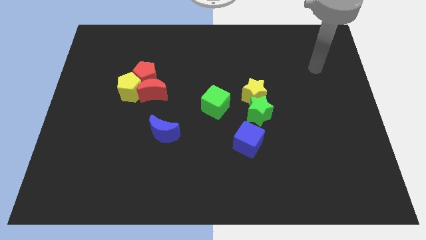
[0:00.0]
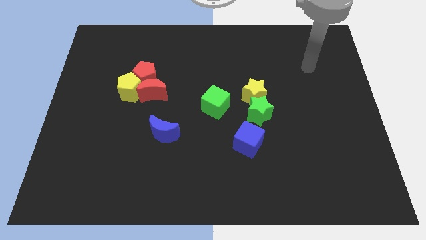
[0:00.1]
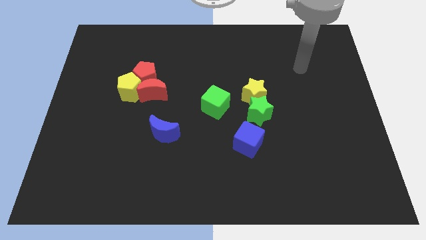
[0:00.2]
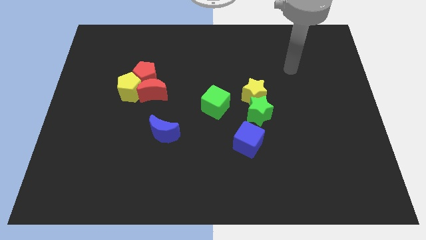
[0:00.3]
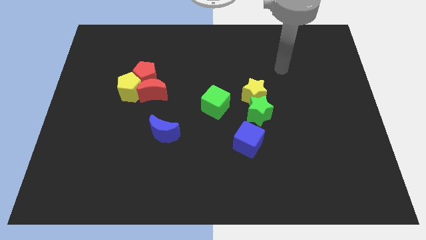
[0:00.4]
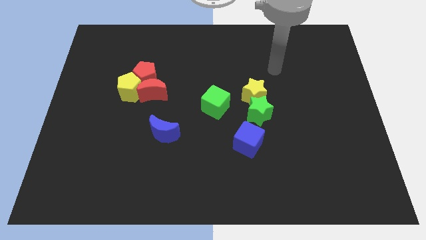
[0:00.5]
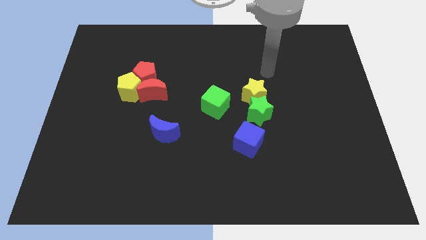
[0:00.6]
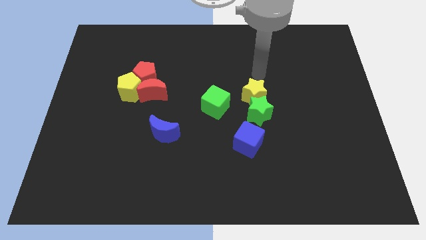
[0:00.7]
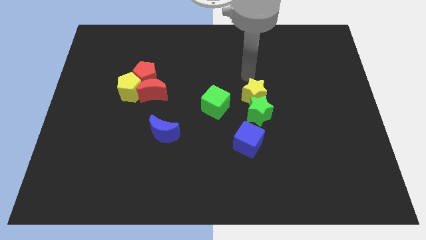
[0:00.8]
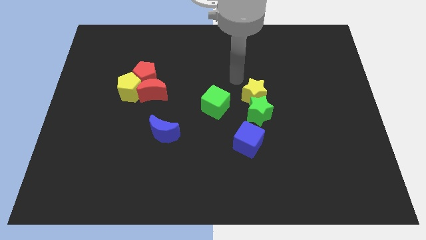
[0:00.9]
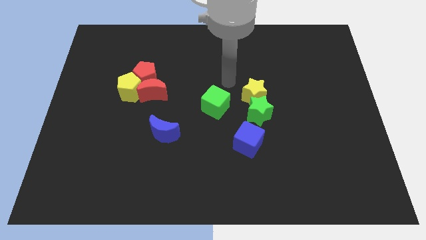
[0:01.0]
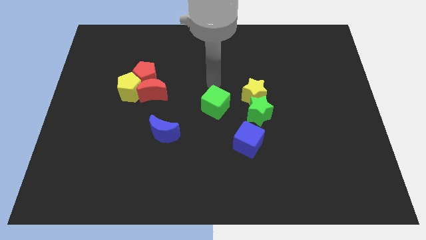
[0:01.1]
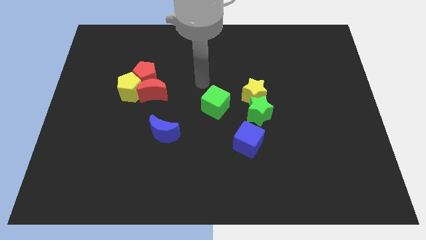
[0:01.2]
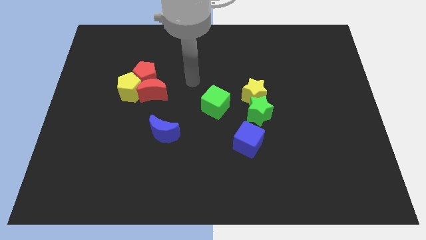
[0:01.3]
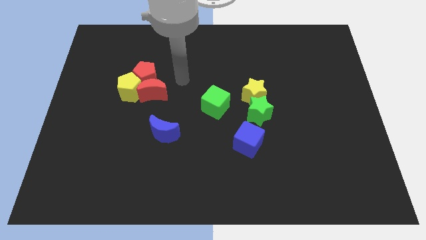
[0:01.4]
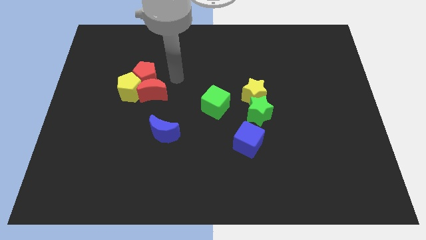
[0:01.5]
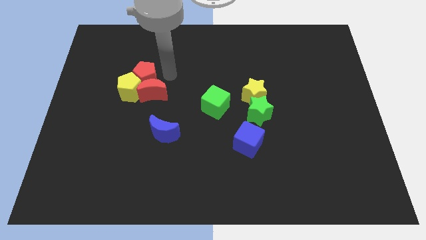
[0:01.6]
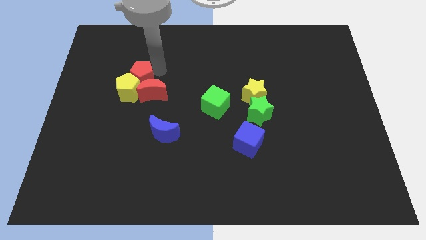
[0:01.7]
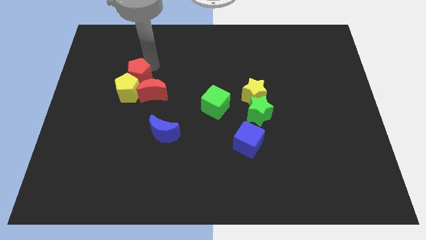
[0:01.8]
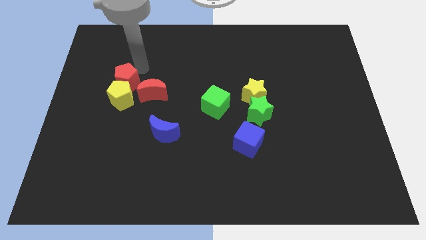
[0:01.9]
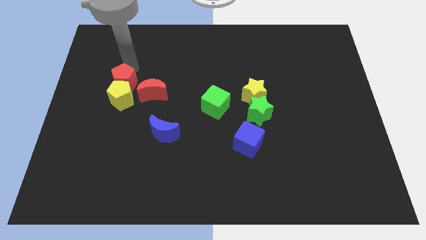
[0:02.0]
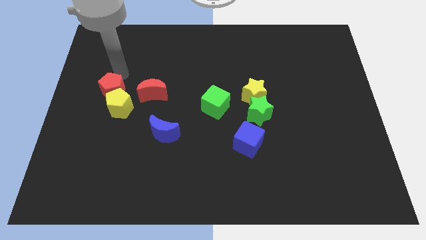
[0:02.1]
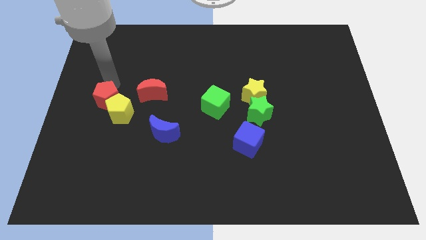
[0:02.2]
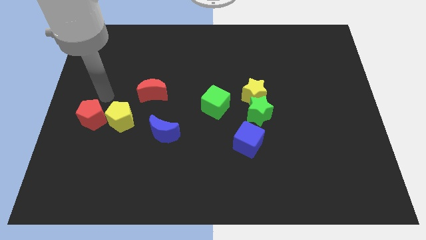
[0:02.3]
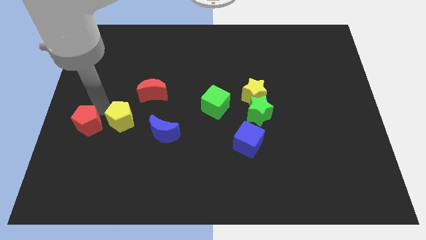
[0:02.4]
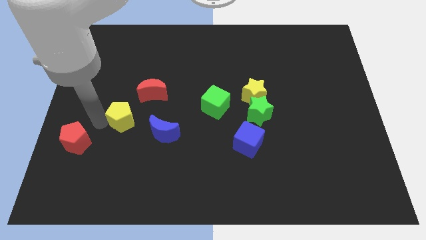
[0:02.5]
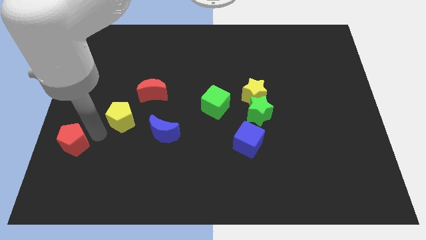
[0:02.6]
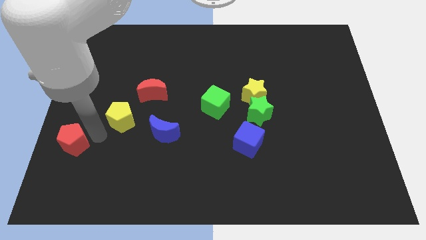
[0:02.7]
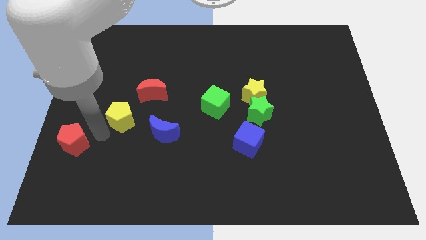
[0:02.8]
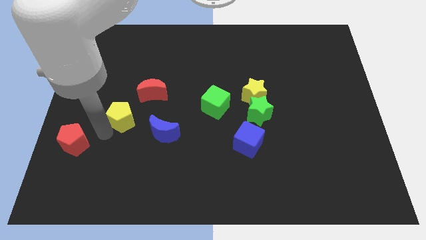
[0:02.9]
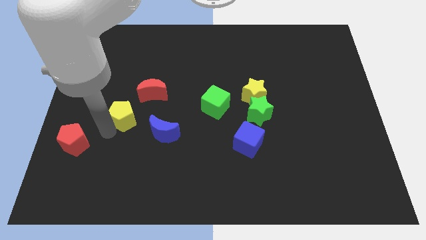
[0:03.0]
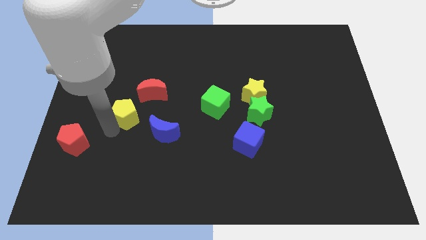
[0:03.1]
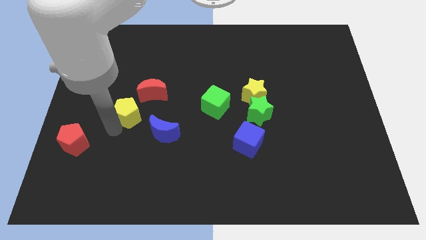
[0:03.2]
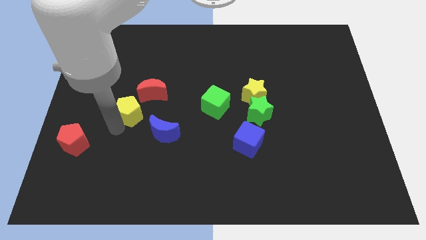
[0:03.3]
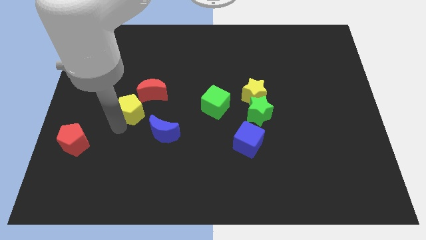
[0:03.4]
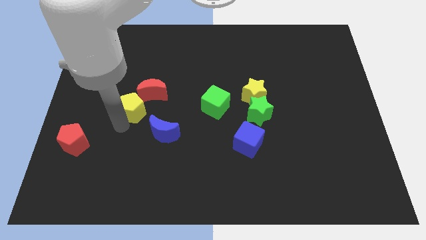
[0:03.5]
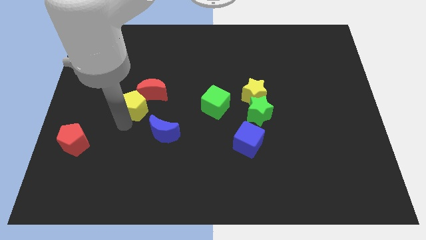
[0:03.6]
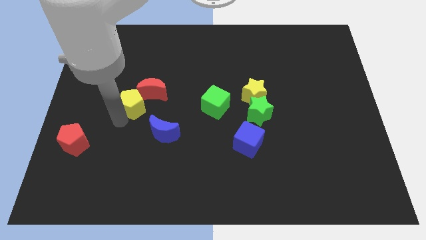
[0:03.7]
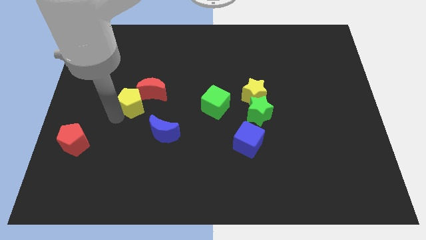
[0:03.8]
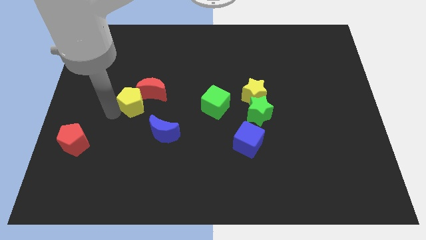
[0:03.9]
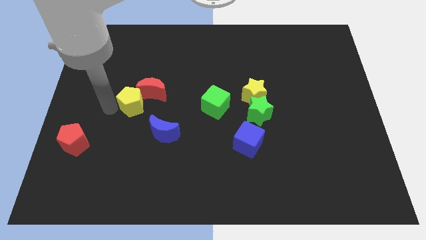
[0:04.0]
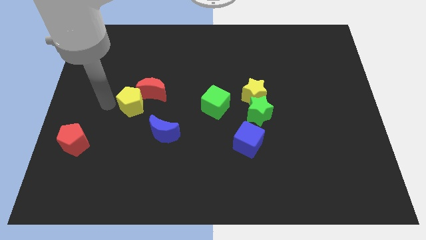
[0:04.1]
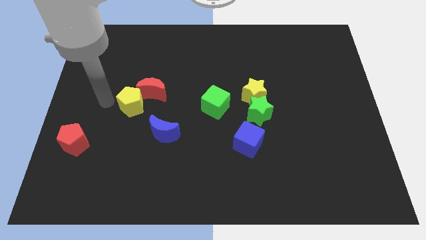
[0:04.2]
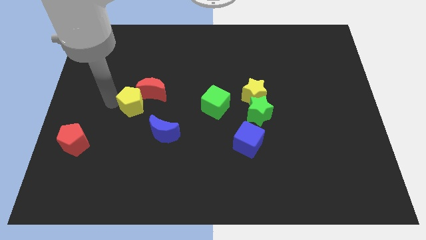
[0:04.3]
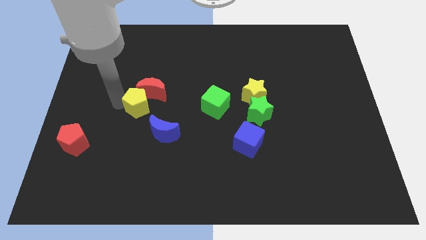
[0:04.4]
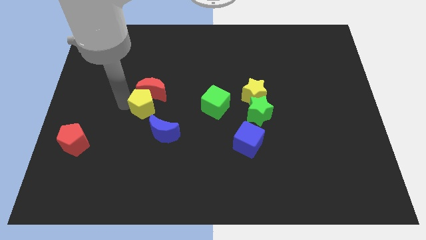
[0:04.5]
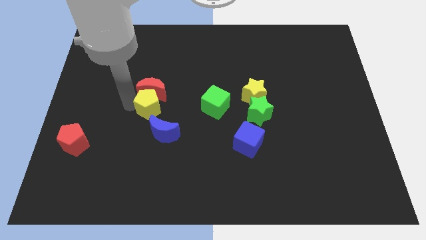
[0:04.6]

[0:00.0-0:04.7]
push the yellow pentagon down and to the right slightly

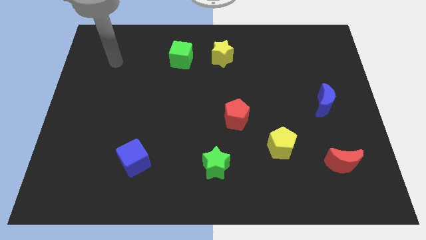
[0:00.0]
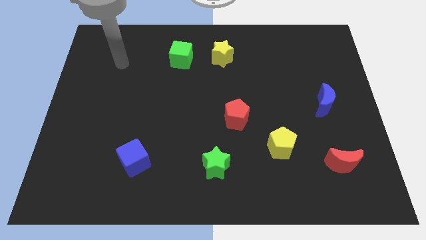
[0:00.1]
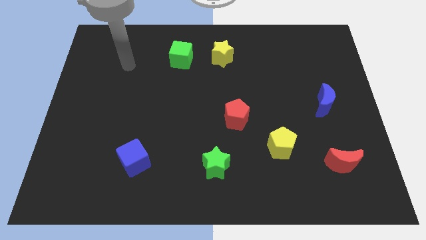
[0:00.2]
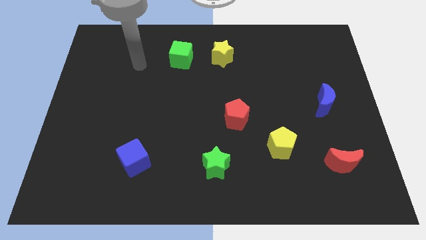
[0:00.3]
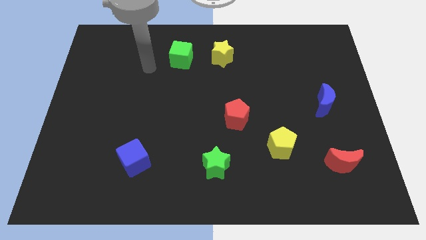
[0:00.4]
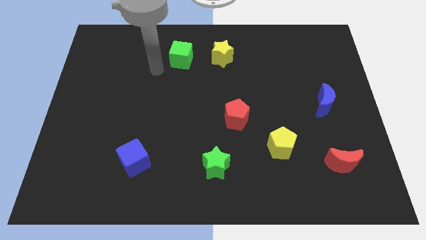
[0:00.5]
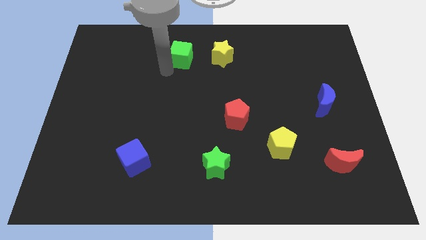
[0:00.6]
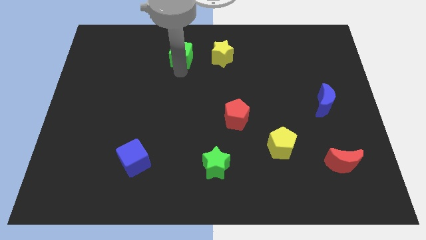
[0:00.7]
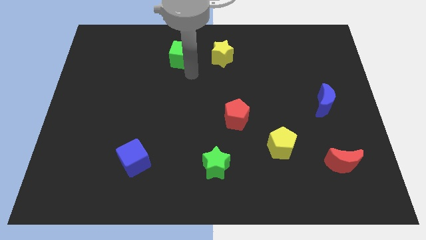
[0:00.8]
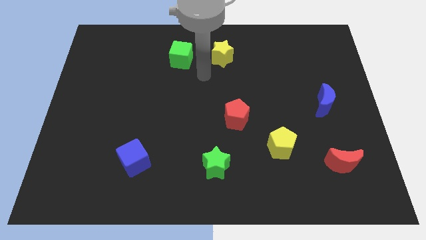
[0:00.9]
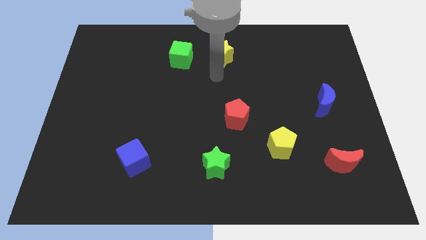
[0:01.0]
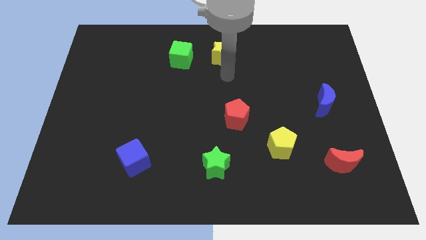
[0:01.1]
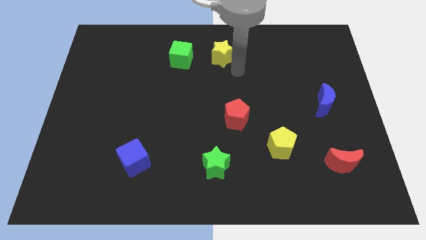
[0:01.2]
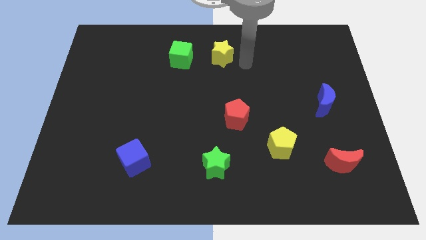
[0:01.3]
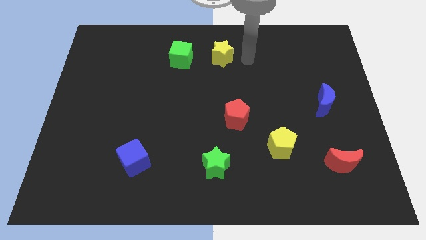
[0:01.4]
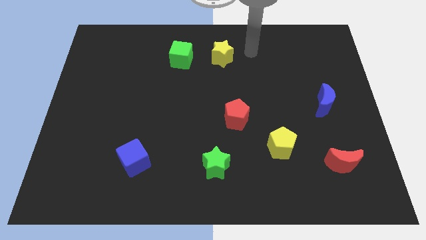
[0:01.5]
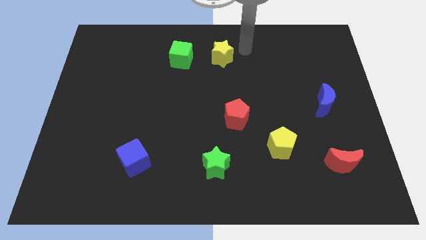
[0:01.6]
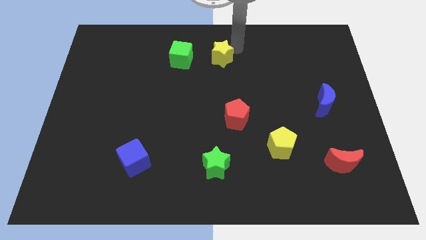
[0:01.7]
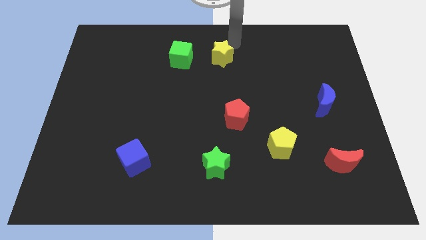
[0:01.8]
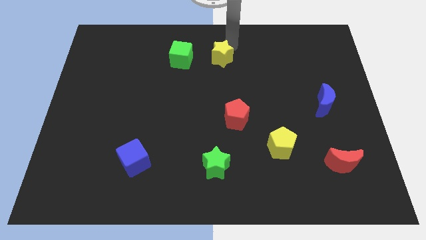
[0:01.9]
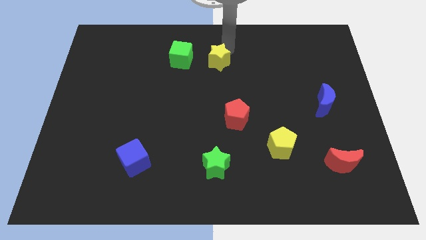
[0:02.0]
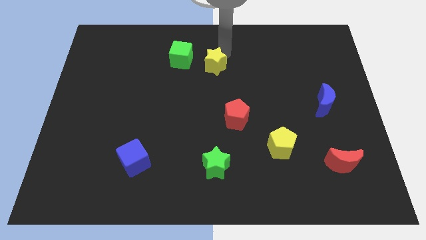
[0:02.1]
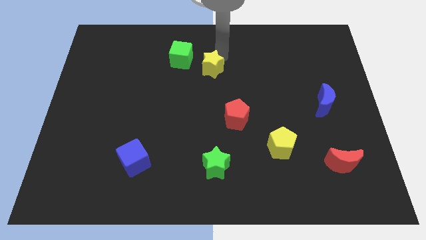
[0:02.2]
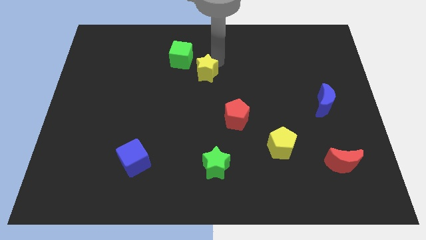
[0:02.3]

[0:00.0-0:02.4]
slide the yellow star somewhat diagonally down and to the left

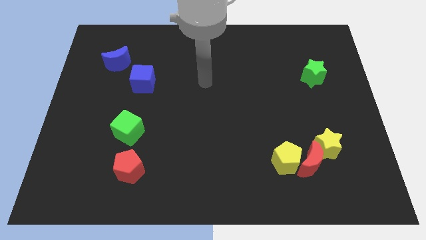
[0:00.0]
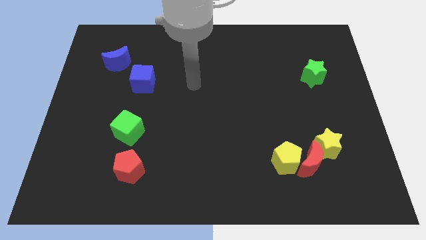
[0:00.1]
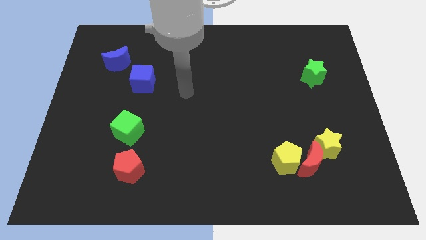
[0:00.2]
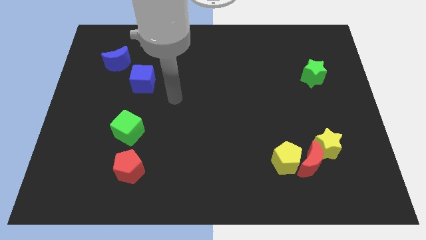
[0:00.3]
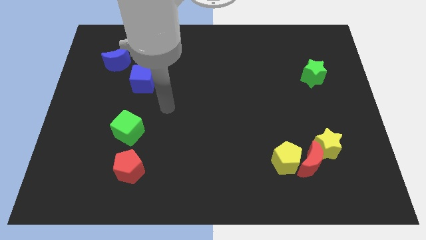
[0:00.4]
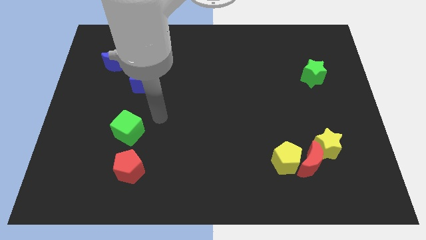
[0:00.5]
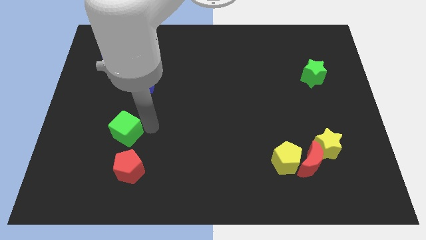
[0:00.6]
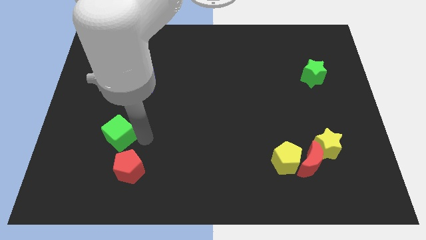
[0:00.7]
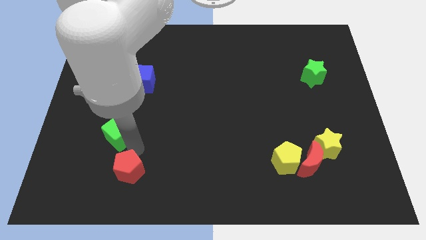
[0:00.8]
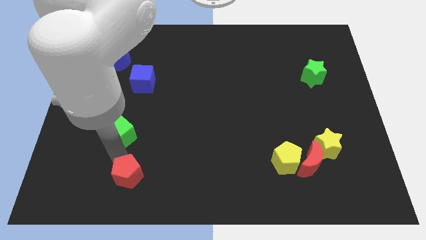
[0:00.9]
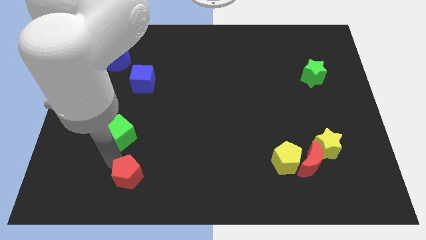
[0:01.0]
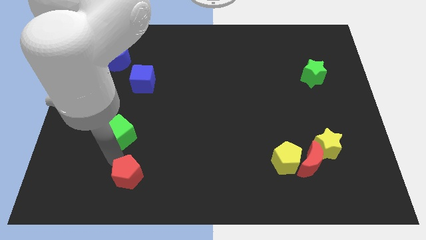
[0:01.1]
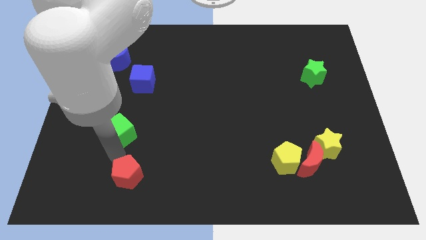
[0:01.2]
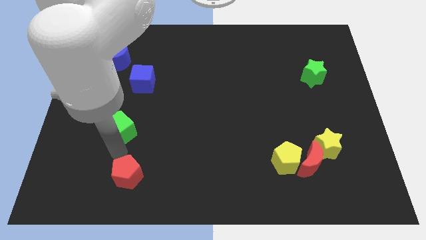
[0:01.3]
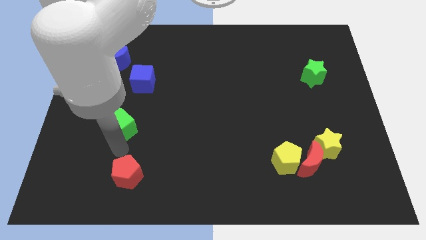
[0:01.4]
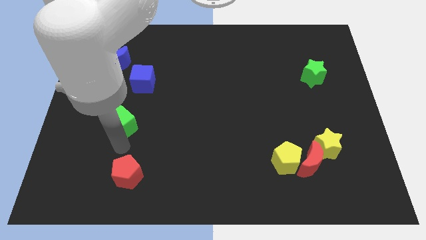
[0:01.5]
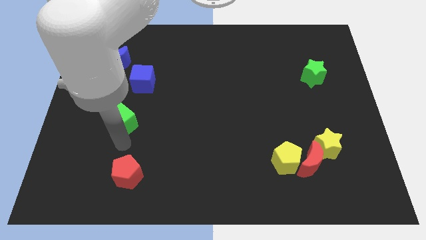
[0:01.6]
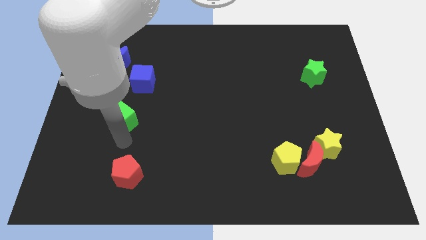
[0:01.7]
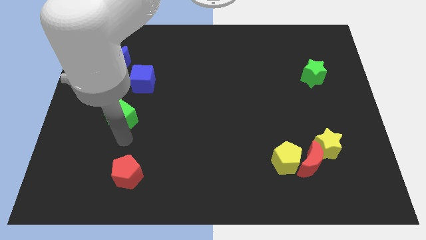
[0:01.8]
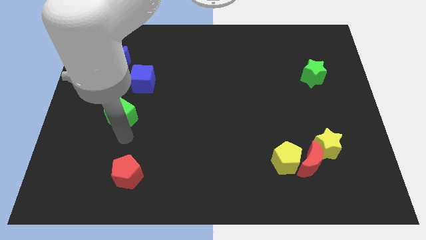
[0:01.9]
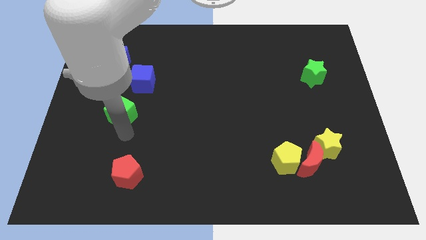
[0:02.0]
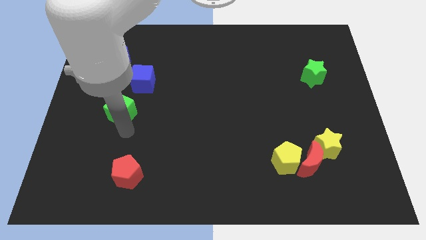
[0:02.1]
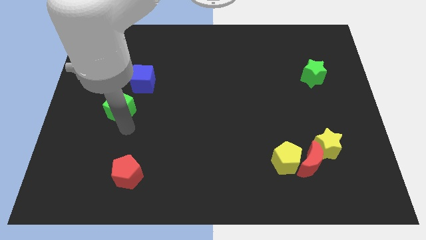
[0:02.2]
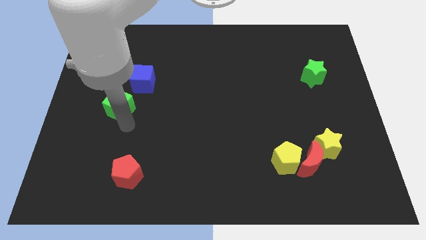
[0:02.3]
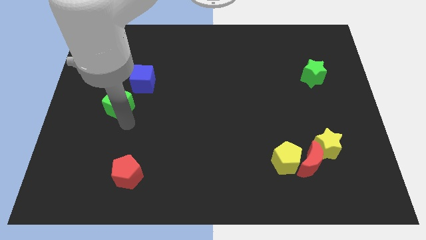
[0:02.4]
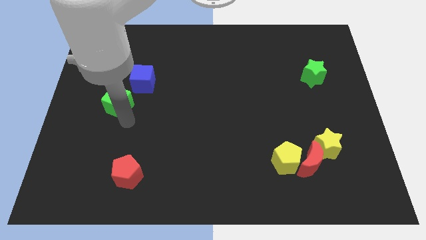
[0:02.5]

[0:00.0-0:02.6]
slide the green cube up a little bit
